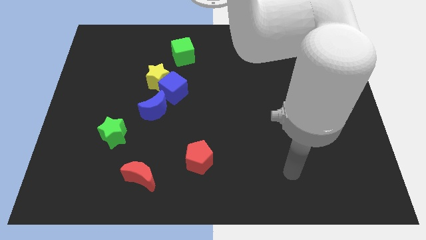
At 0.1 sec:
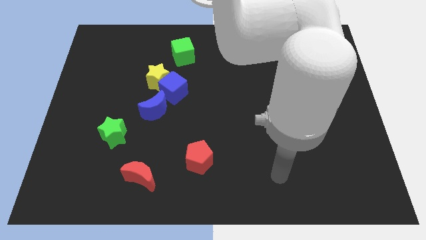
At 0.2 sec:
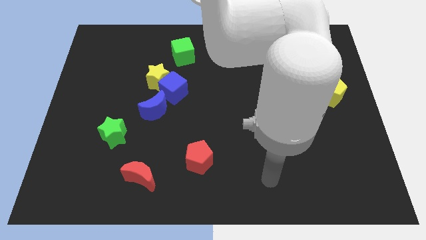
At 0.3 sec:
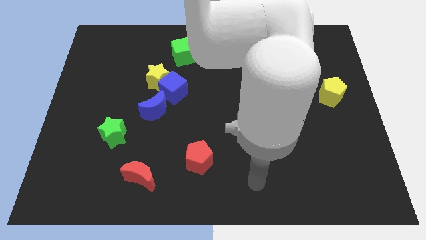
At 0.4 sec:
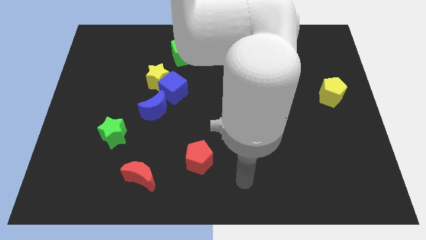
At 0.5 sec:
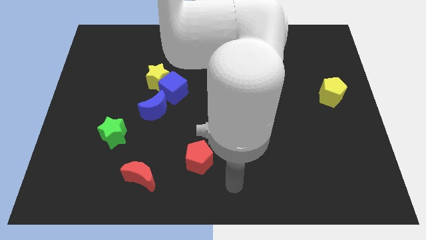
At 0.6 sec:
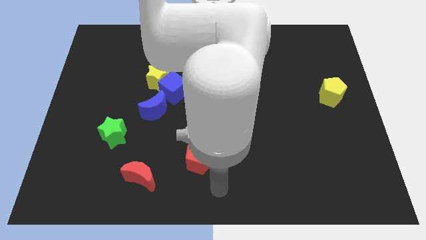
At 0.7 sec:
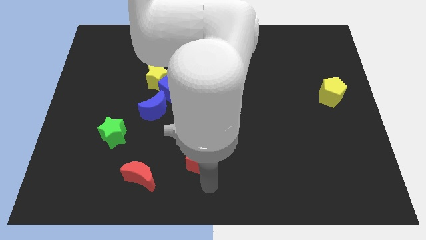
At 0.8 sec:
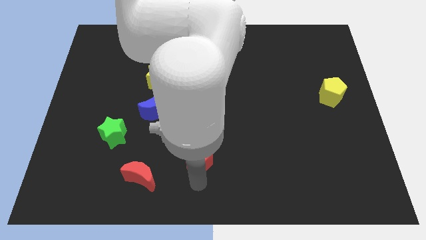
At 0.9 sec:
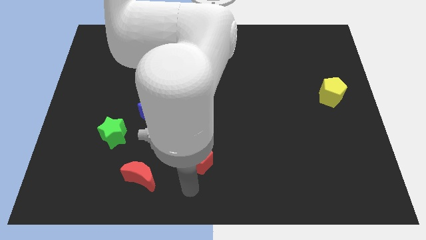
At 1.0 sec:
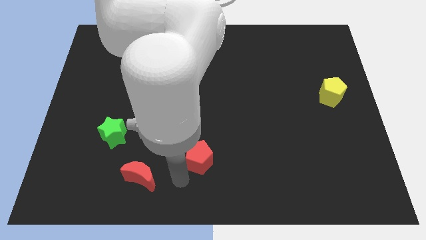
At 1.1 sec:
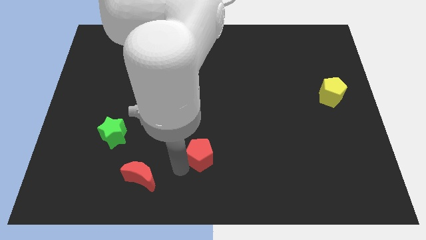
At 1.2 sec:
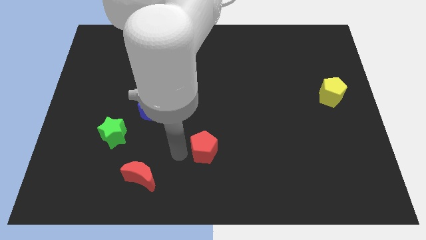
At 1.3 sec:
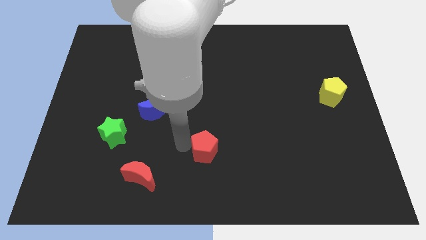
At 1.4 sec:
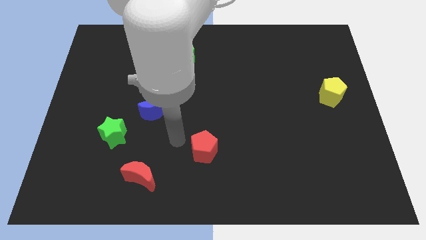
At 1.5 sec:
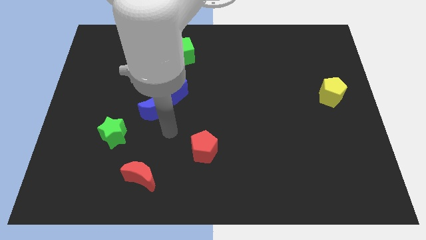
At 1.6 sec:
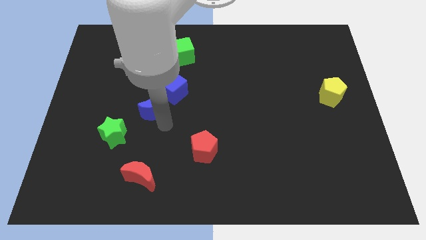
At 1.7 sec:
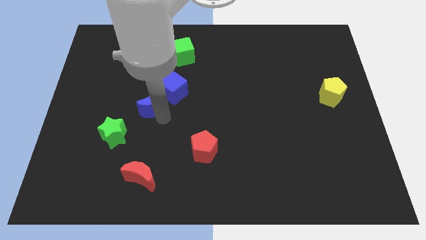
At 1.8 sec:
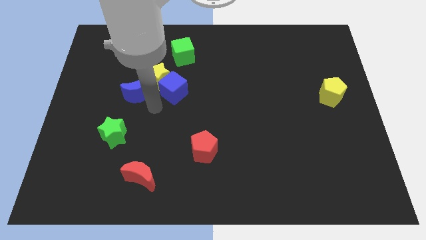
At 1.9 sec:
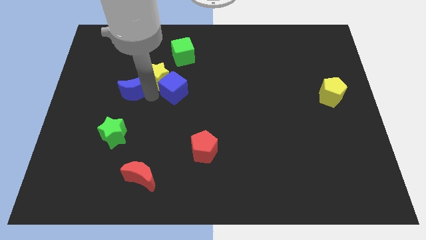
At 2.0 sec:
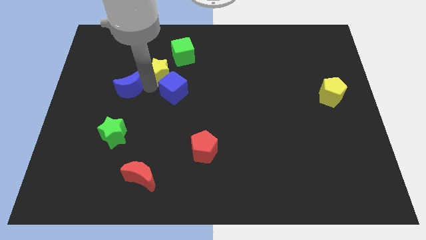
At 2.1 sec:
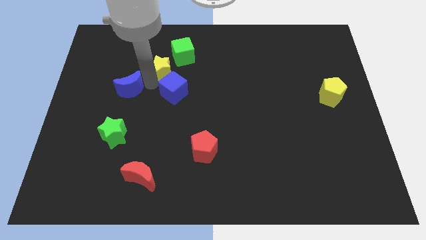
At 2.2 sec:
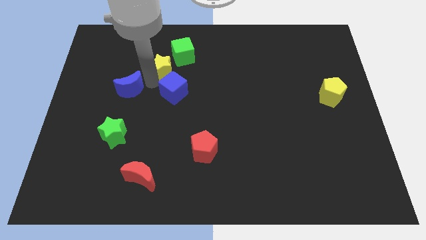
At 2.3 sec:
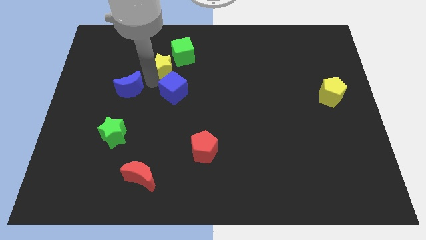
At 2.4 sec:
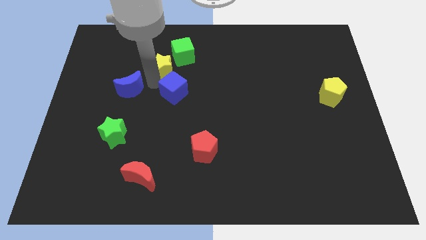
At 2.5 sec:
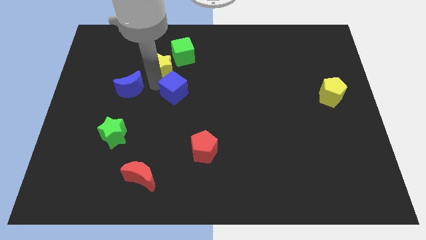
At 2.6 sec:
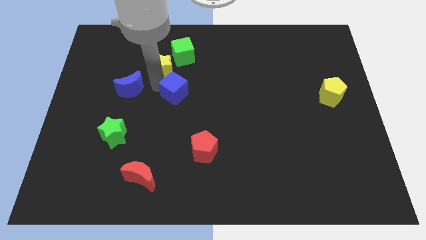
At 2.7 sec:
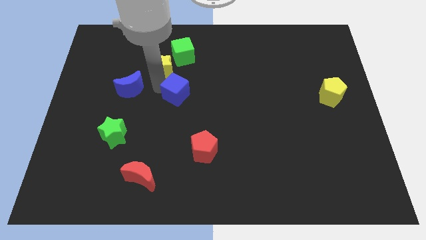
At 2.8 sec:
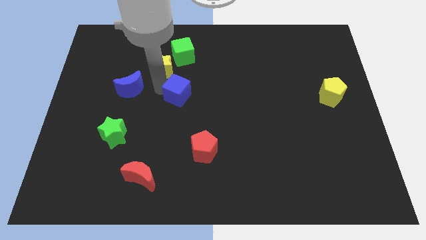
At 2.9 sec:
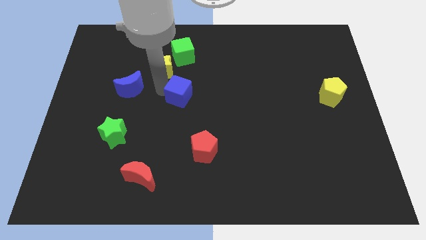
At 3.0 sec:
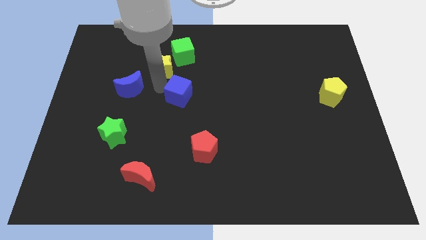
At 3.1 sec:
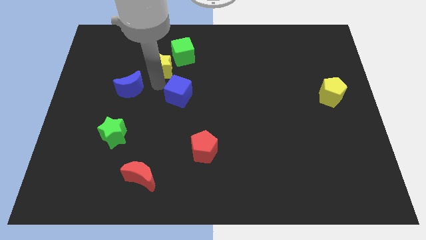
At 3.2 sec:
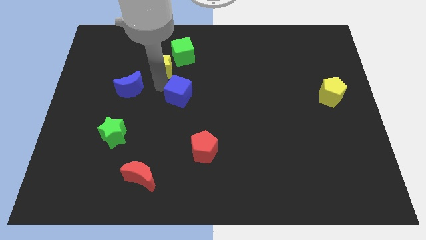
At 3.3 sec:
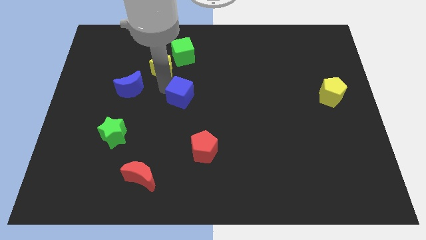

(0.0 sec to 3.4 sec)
move the blue cube away from the yellow star and blue moon

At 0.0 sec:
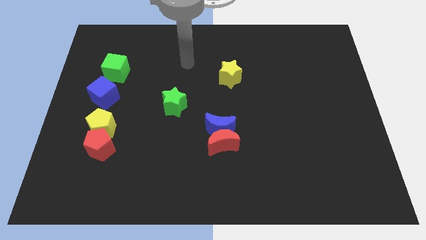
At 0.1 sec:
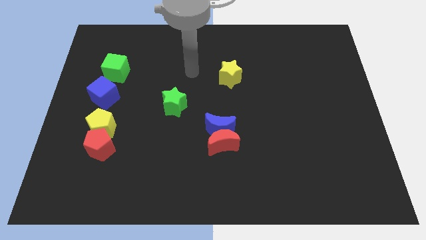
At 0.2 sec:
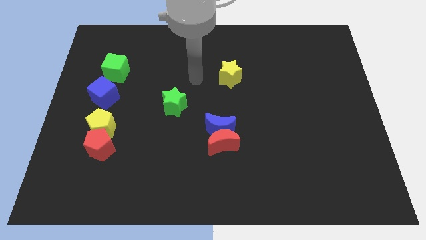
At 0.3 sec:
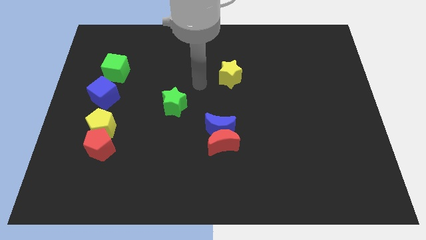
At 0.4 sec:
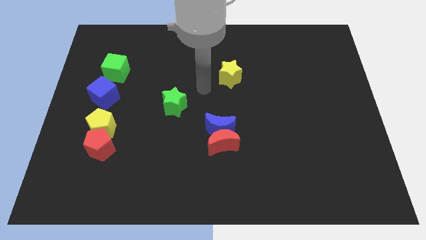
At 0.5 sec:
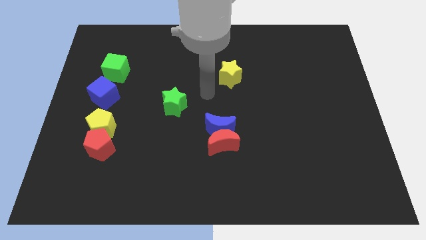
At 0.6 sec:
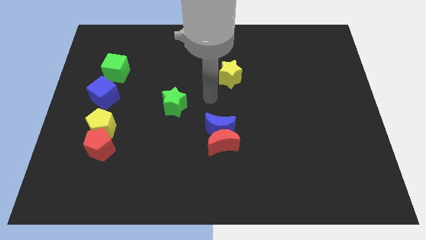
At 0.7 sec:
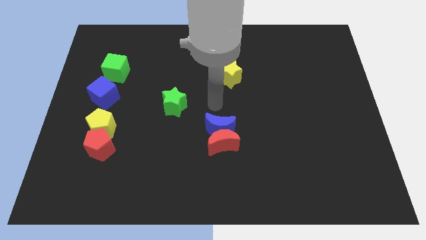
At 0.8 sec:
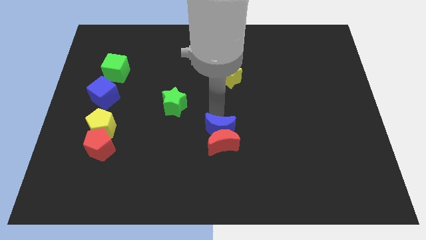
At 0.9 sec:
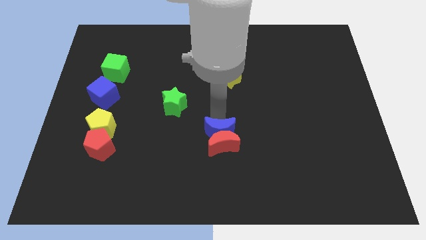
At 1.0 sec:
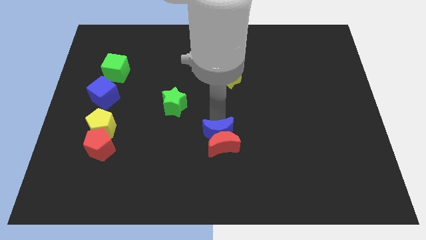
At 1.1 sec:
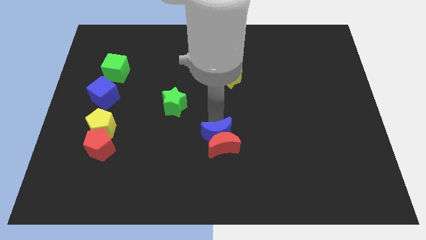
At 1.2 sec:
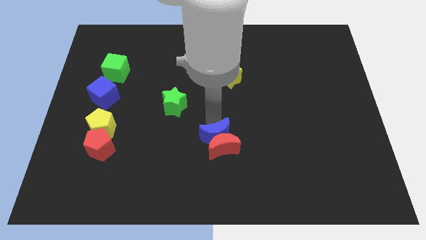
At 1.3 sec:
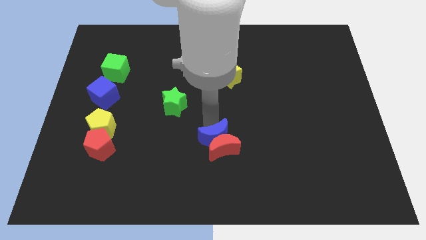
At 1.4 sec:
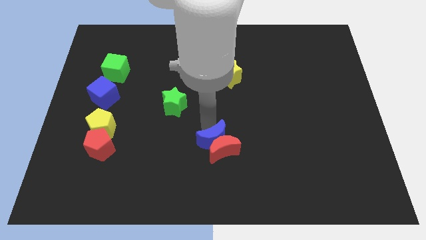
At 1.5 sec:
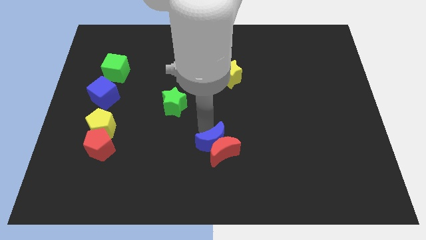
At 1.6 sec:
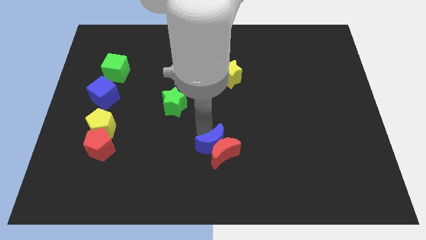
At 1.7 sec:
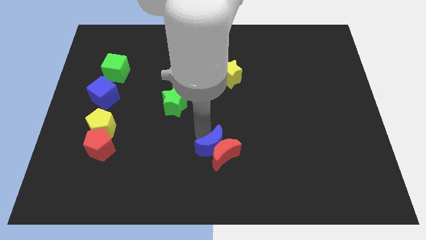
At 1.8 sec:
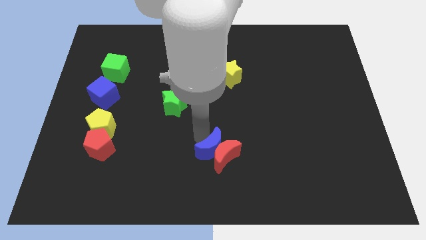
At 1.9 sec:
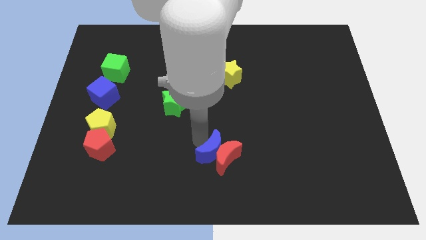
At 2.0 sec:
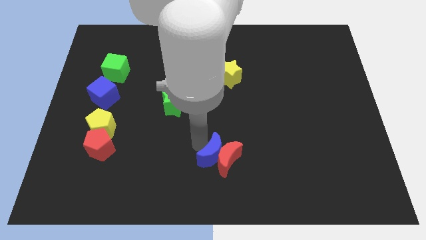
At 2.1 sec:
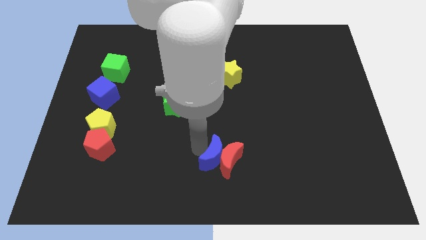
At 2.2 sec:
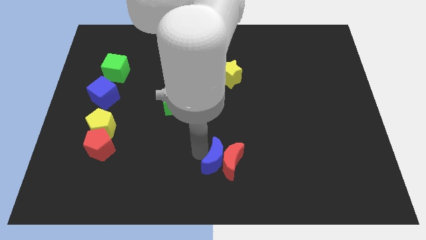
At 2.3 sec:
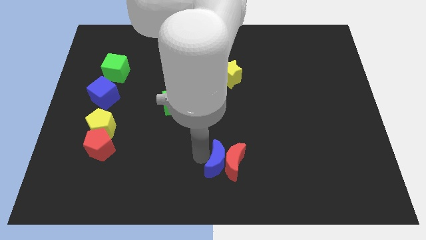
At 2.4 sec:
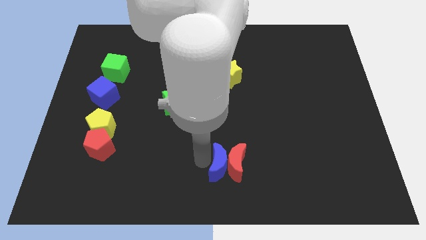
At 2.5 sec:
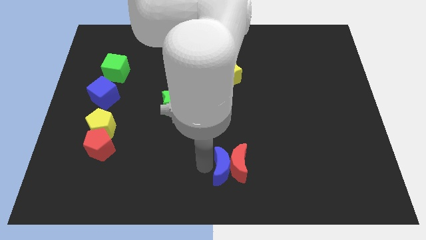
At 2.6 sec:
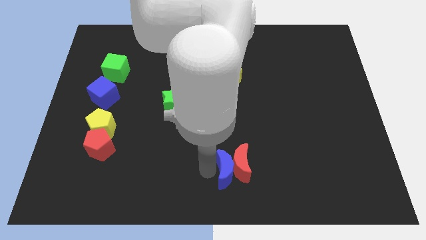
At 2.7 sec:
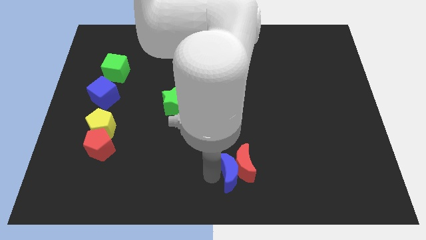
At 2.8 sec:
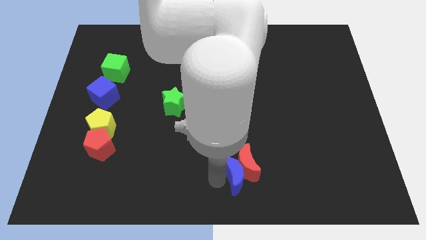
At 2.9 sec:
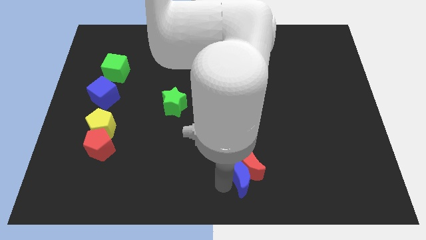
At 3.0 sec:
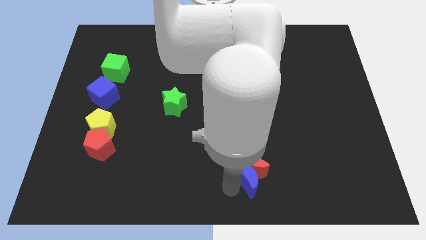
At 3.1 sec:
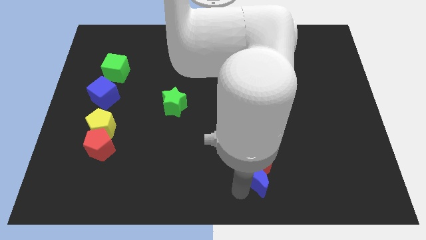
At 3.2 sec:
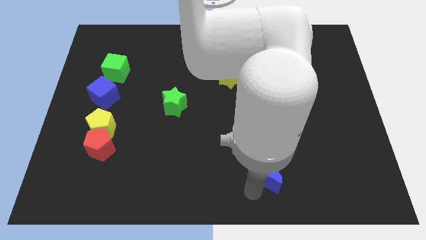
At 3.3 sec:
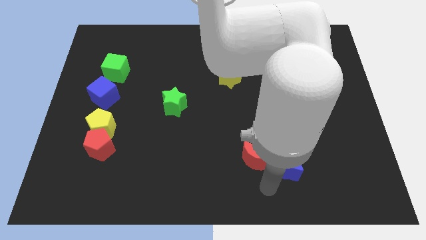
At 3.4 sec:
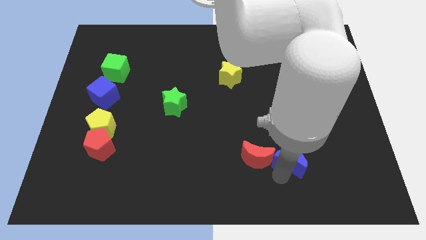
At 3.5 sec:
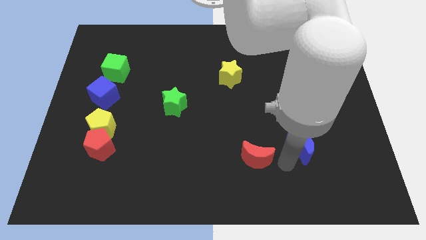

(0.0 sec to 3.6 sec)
move the red moon away from the blue moon

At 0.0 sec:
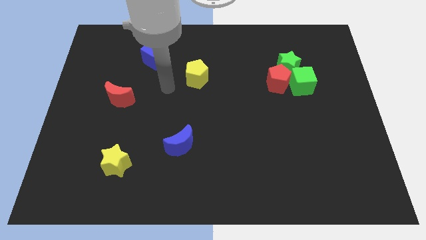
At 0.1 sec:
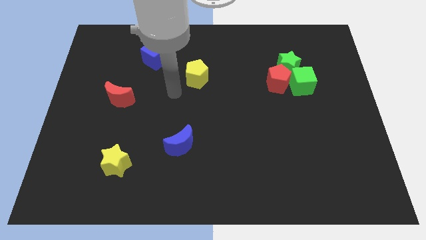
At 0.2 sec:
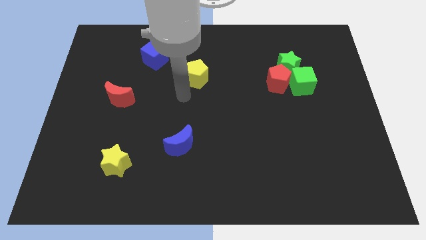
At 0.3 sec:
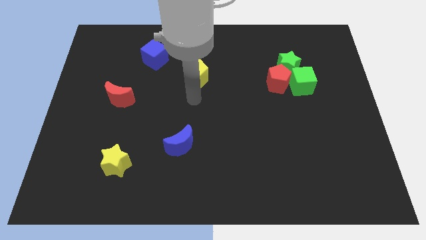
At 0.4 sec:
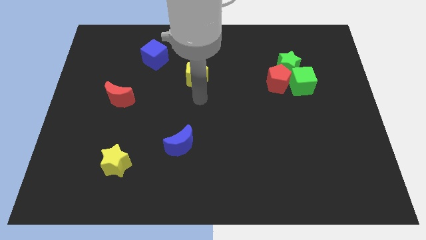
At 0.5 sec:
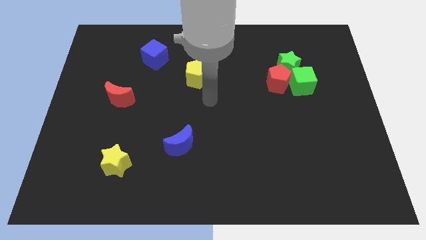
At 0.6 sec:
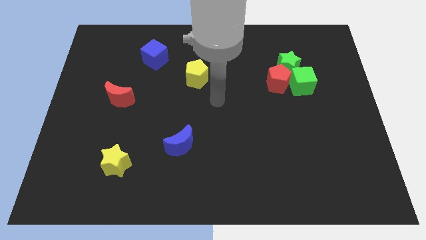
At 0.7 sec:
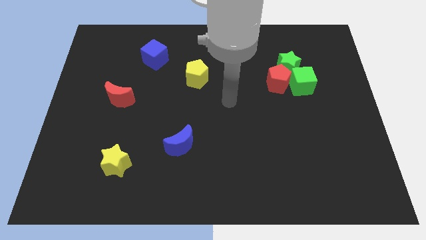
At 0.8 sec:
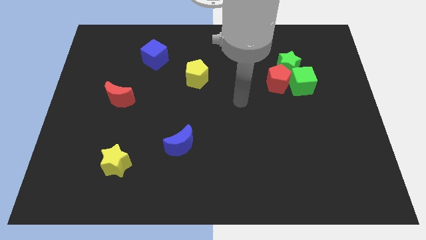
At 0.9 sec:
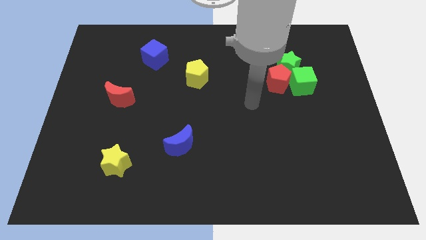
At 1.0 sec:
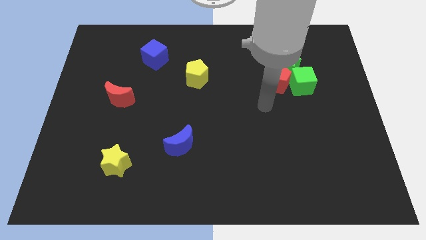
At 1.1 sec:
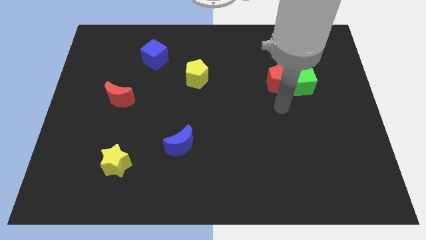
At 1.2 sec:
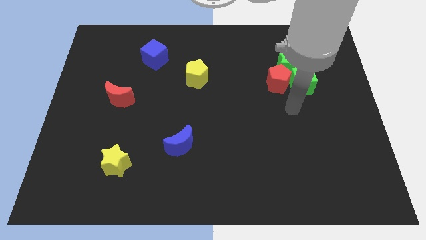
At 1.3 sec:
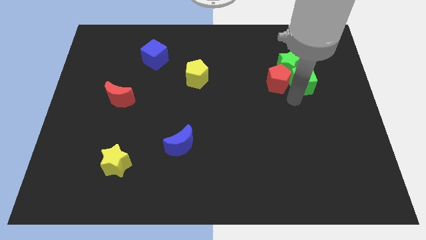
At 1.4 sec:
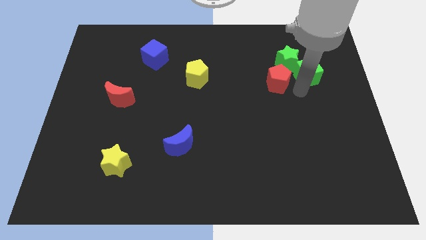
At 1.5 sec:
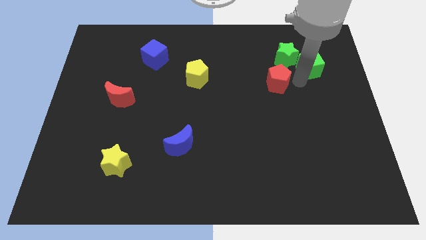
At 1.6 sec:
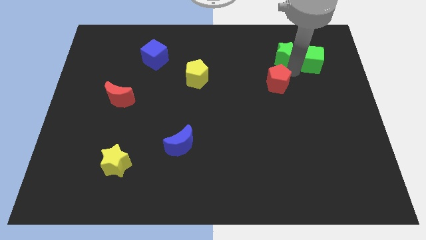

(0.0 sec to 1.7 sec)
separate the red pentagon from the green star and green cube

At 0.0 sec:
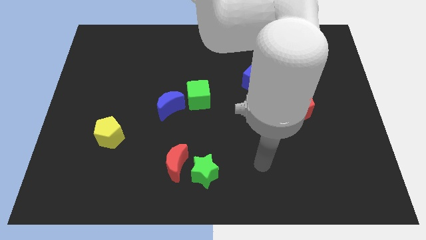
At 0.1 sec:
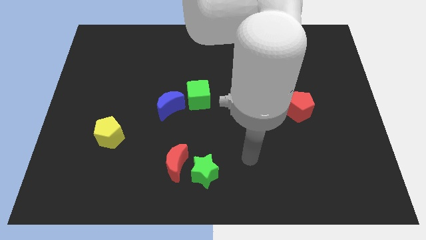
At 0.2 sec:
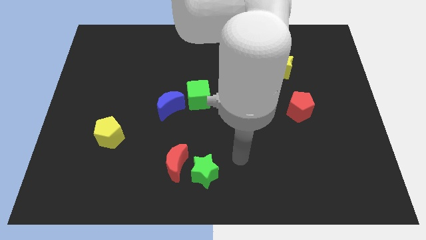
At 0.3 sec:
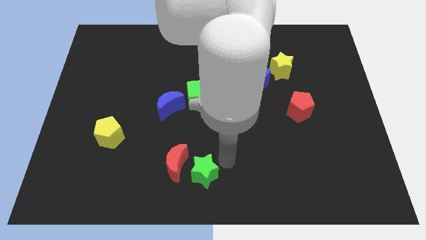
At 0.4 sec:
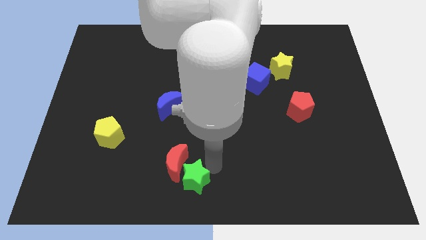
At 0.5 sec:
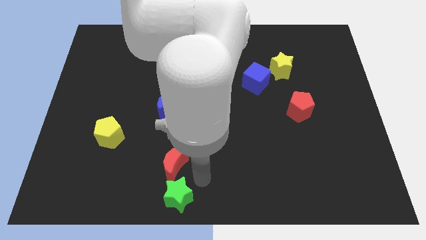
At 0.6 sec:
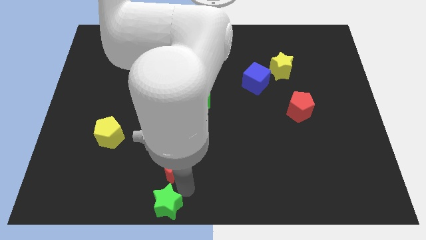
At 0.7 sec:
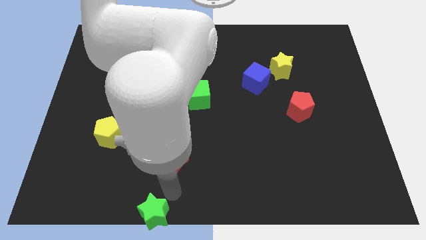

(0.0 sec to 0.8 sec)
separate the red moon from the green star
